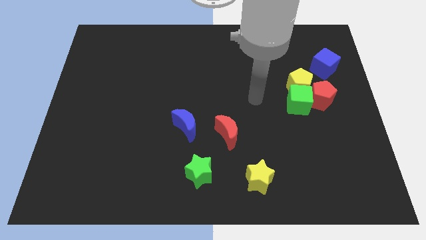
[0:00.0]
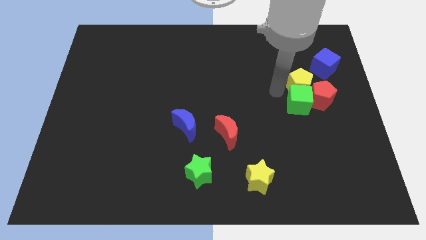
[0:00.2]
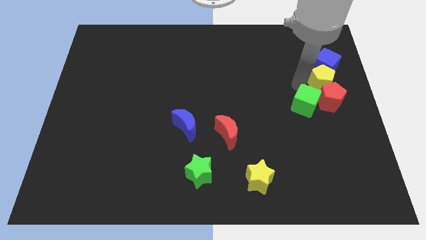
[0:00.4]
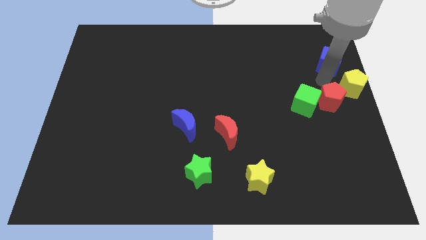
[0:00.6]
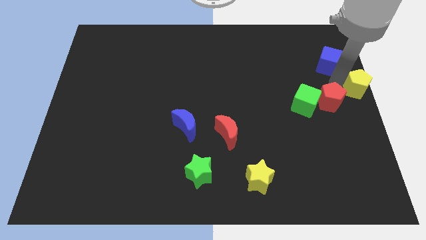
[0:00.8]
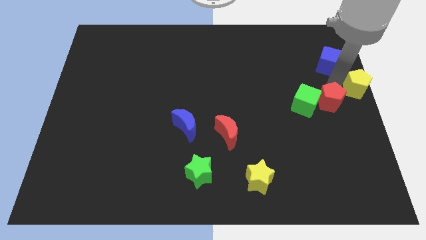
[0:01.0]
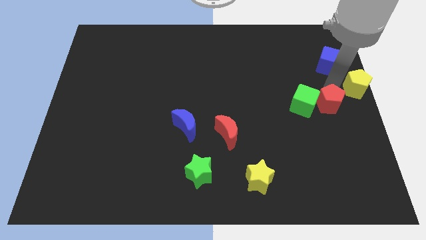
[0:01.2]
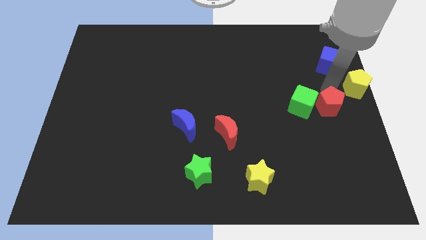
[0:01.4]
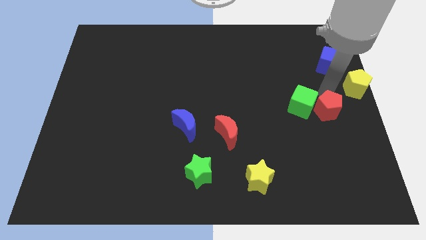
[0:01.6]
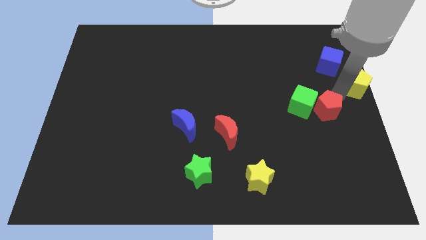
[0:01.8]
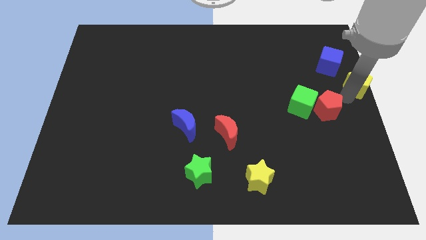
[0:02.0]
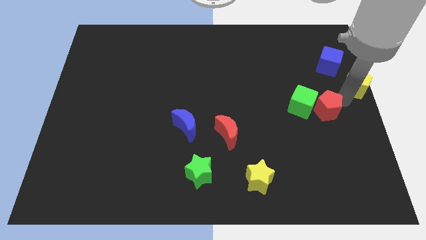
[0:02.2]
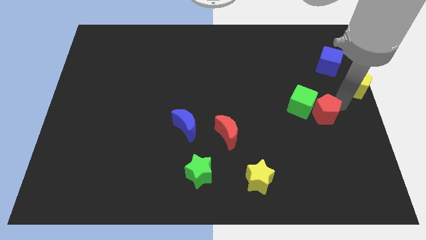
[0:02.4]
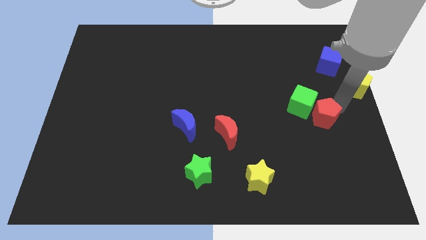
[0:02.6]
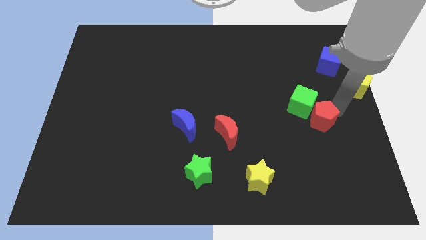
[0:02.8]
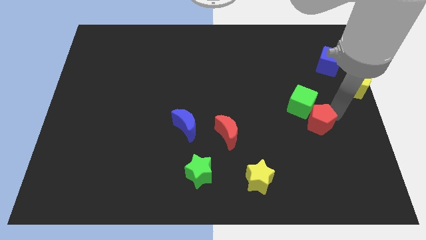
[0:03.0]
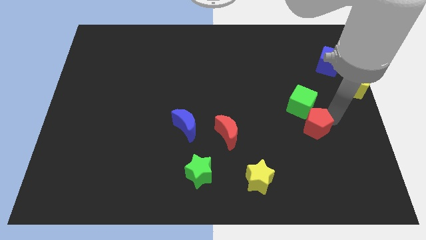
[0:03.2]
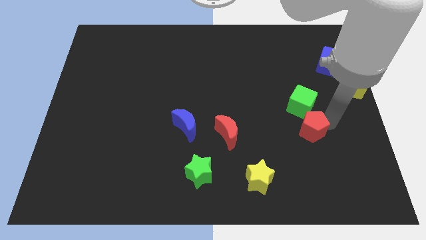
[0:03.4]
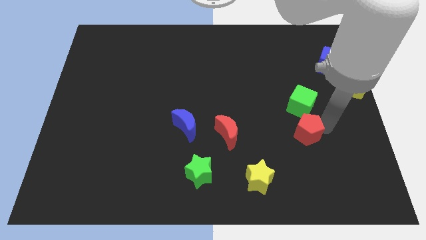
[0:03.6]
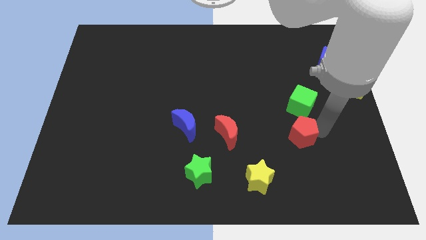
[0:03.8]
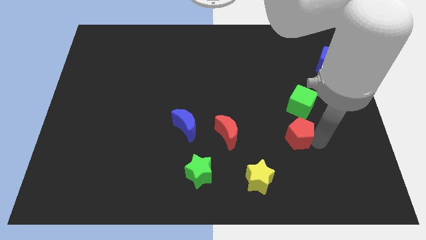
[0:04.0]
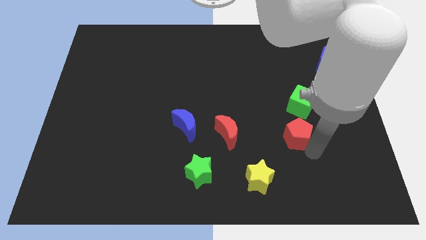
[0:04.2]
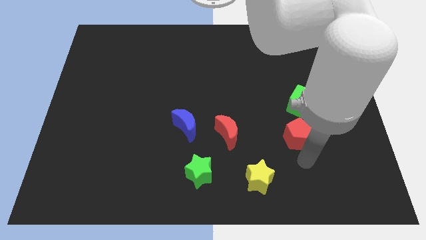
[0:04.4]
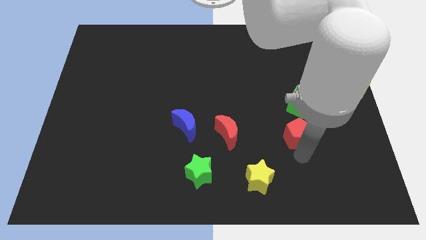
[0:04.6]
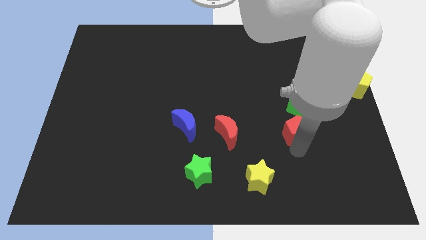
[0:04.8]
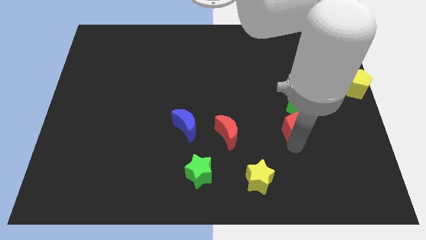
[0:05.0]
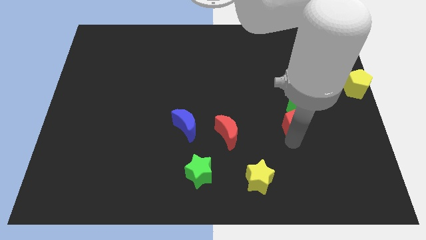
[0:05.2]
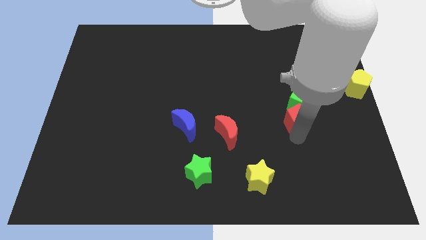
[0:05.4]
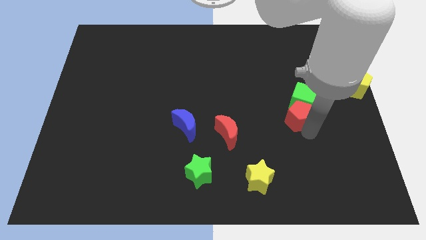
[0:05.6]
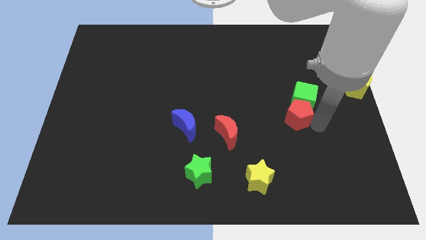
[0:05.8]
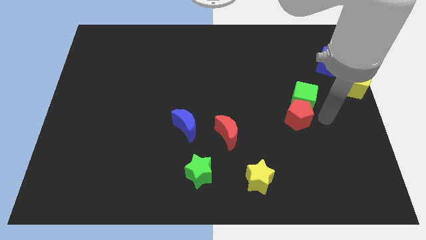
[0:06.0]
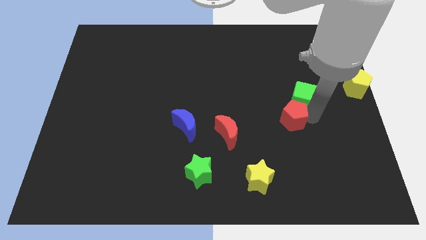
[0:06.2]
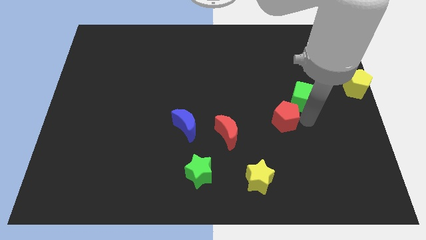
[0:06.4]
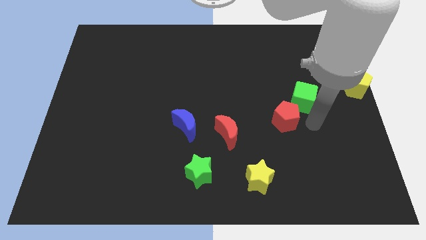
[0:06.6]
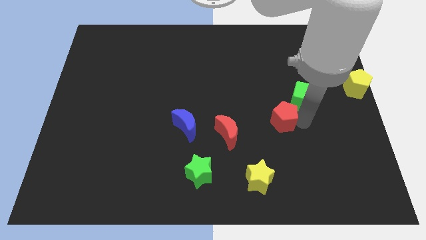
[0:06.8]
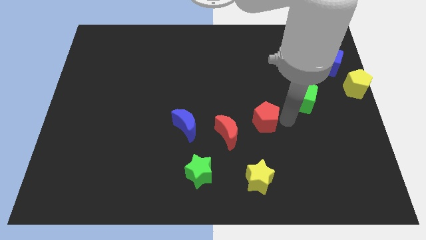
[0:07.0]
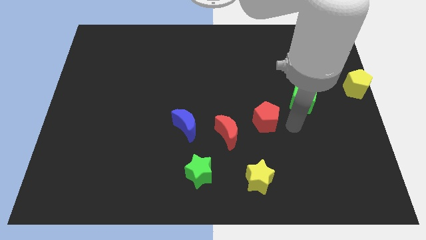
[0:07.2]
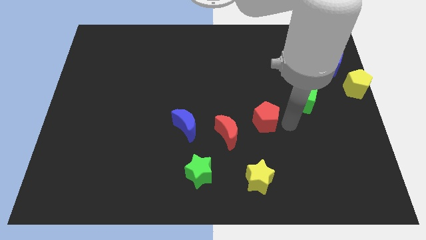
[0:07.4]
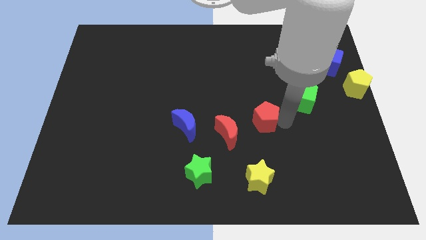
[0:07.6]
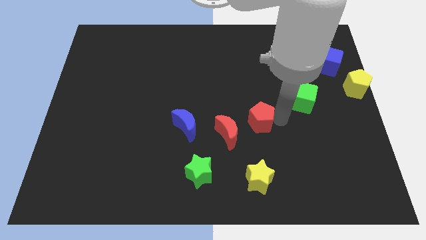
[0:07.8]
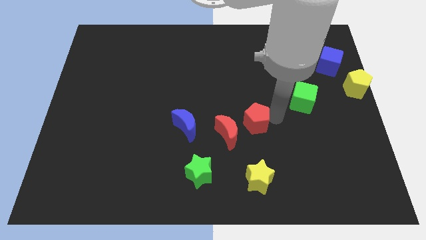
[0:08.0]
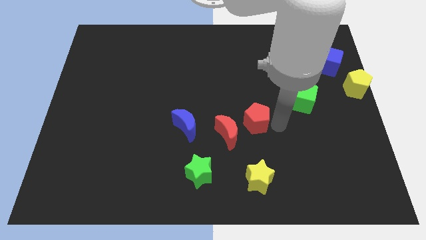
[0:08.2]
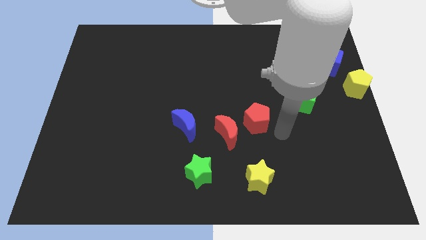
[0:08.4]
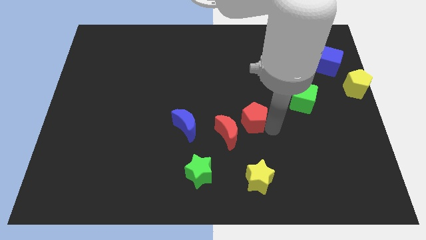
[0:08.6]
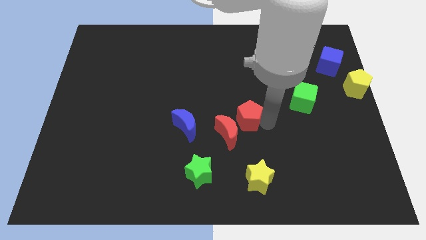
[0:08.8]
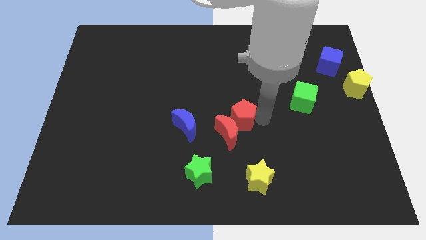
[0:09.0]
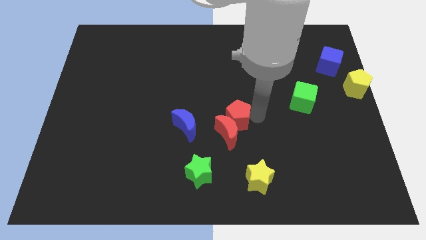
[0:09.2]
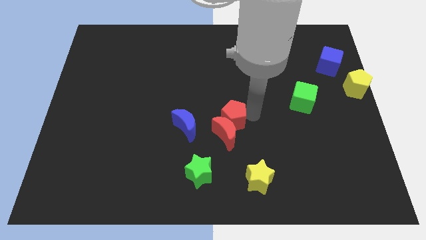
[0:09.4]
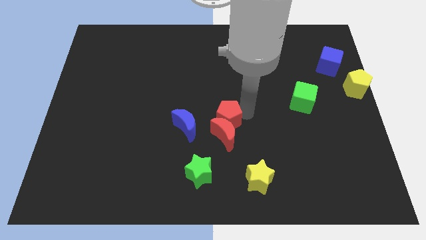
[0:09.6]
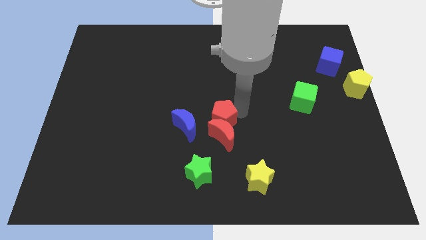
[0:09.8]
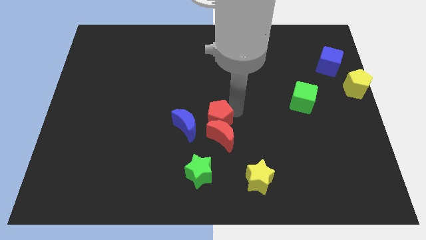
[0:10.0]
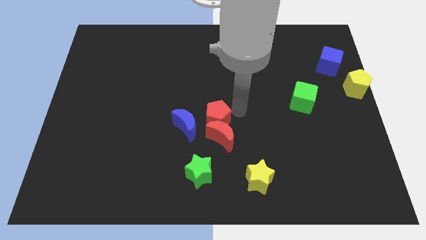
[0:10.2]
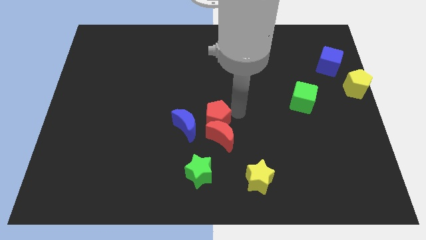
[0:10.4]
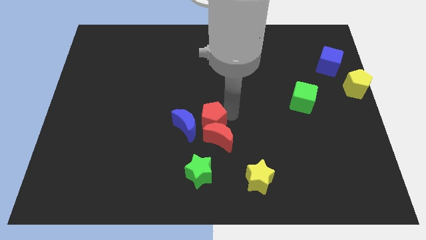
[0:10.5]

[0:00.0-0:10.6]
push the red pentagon towards the blue moon
